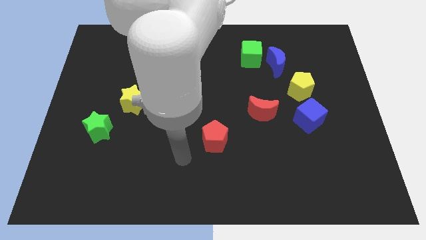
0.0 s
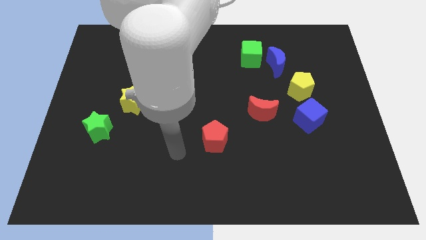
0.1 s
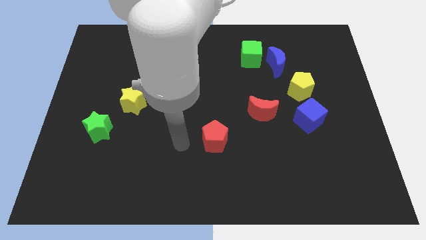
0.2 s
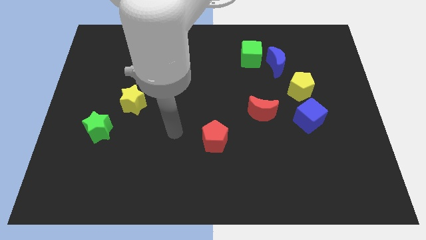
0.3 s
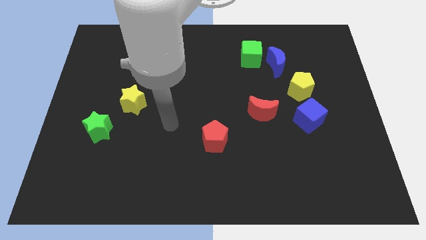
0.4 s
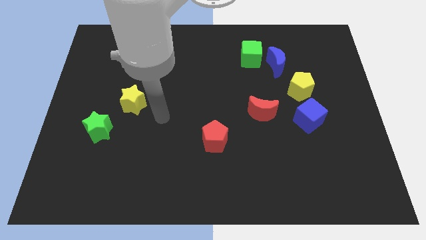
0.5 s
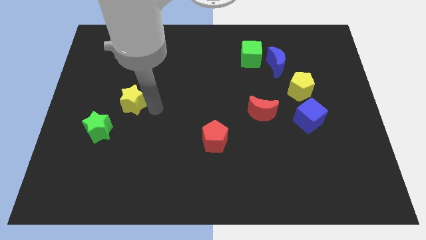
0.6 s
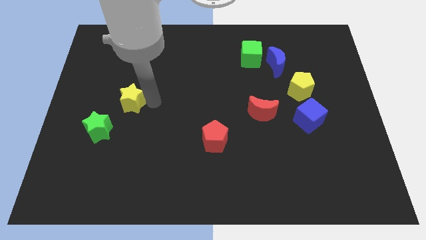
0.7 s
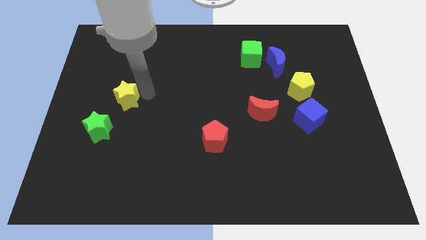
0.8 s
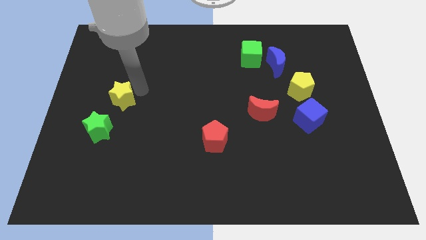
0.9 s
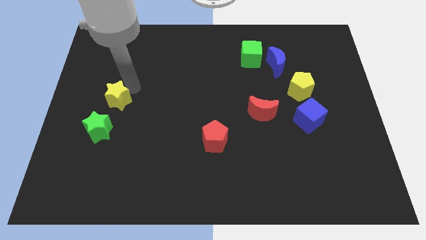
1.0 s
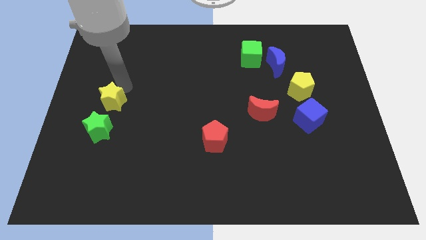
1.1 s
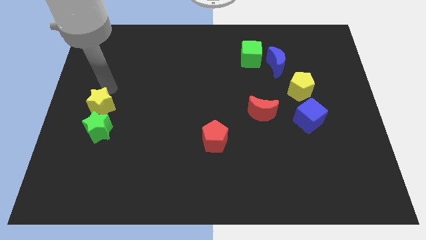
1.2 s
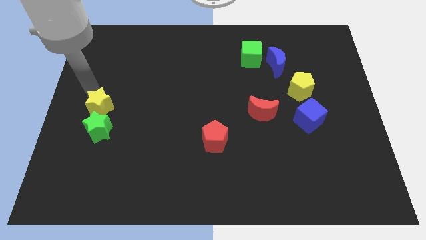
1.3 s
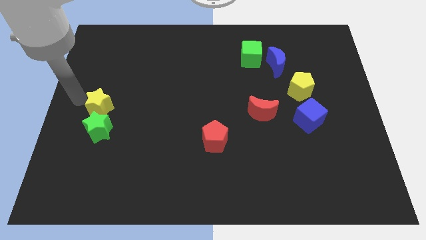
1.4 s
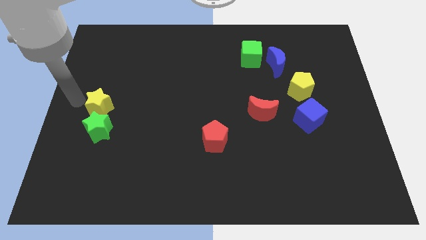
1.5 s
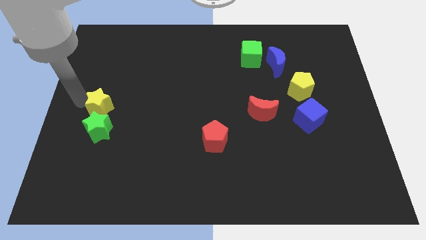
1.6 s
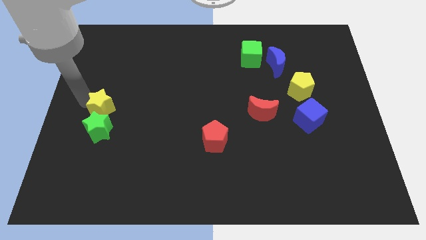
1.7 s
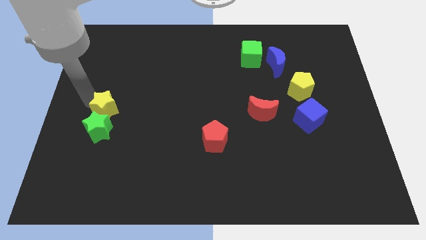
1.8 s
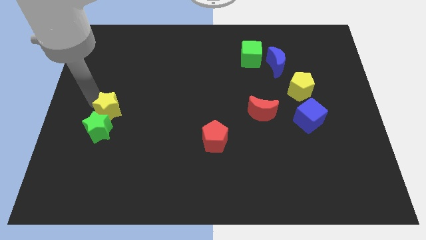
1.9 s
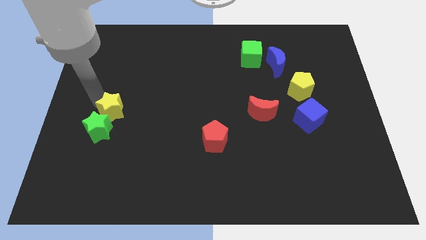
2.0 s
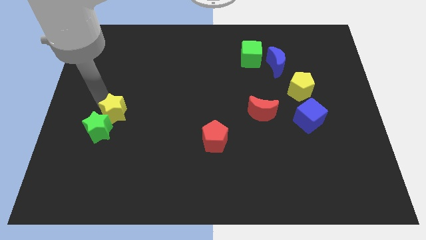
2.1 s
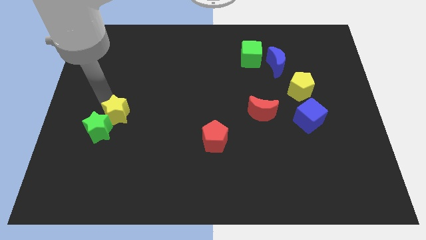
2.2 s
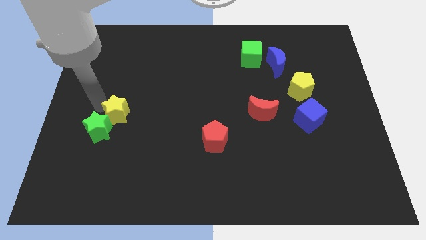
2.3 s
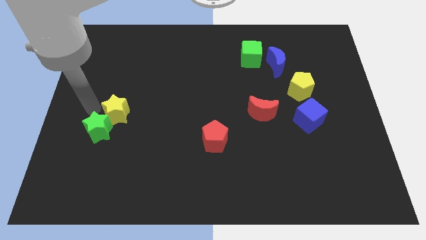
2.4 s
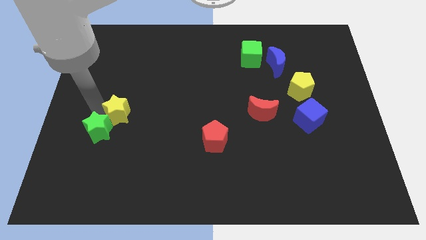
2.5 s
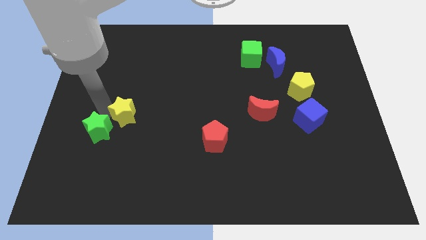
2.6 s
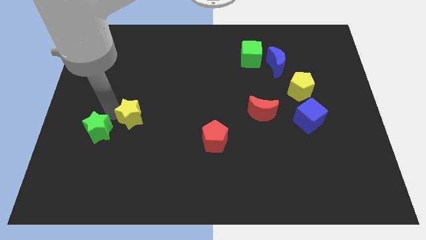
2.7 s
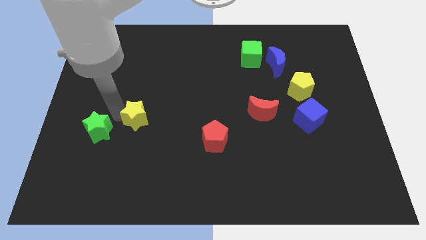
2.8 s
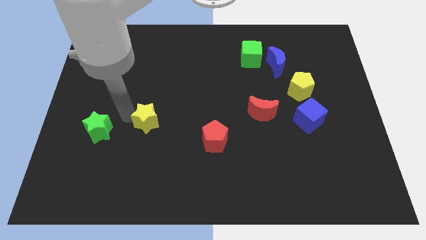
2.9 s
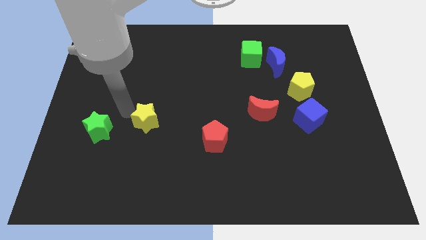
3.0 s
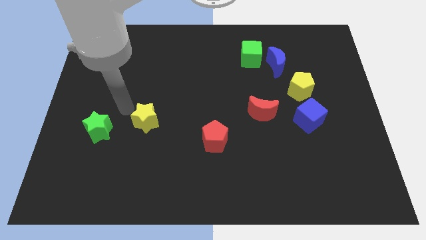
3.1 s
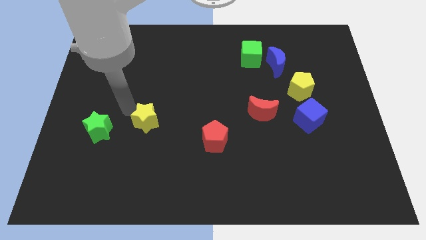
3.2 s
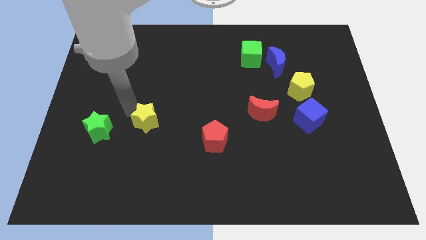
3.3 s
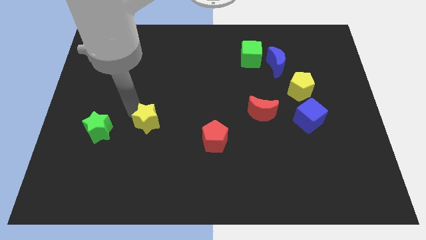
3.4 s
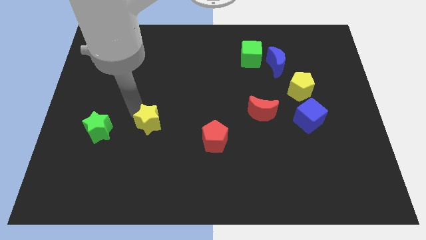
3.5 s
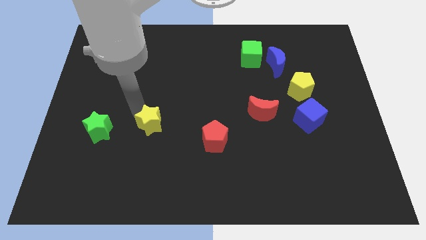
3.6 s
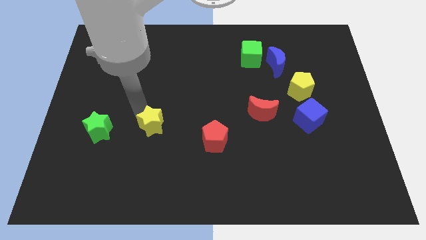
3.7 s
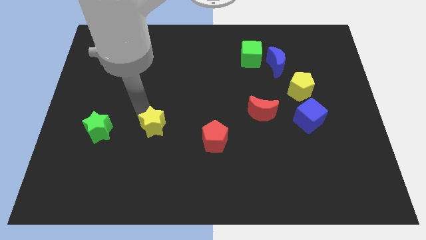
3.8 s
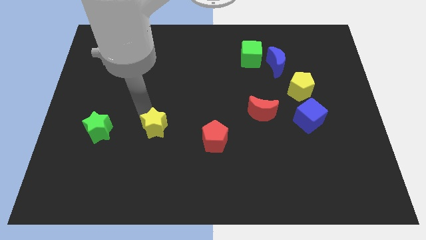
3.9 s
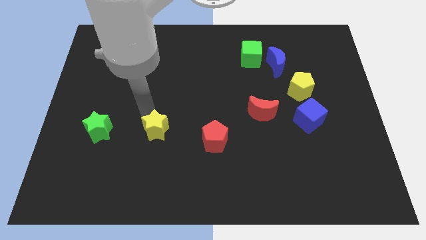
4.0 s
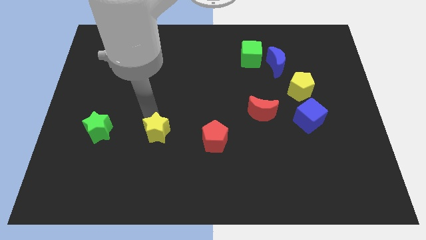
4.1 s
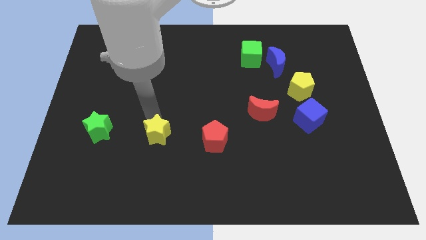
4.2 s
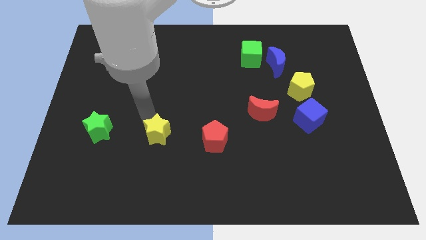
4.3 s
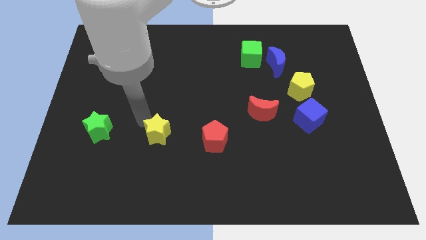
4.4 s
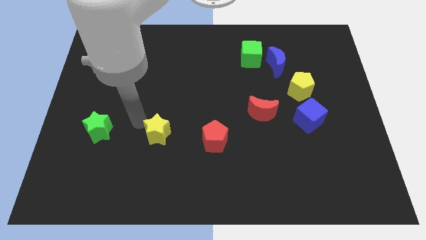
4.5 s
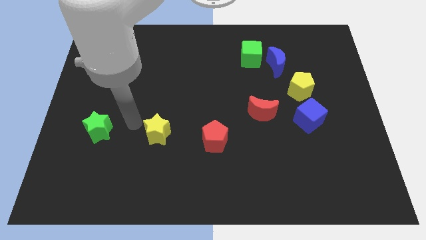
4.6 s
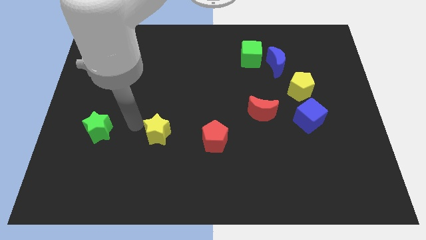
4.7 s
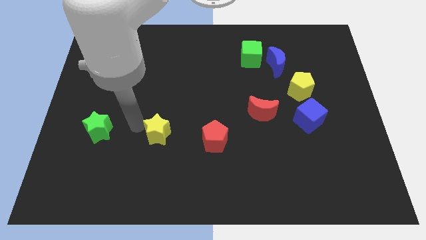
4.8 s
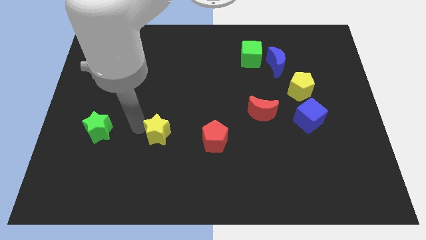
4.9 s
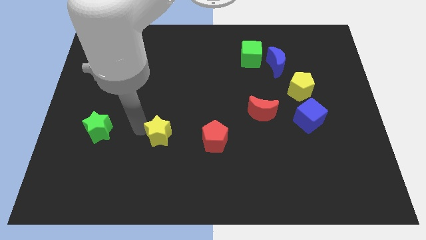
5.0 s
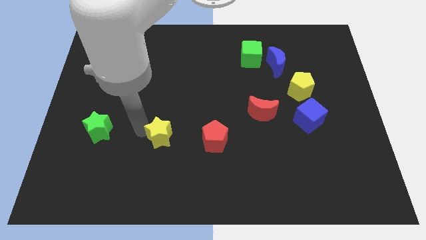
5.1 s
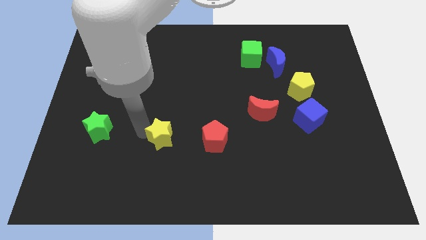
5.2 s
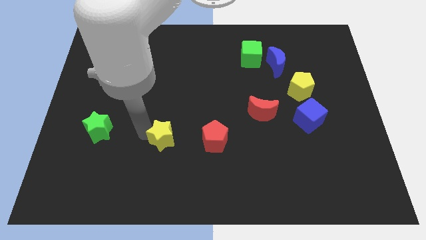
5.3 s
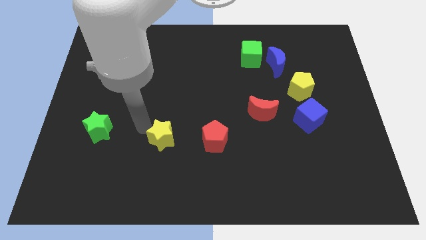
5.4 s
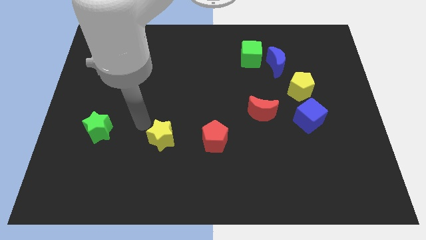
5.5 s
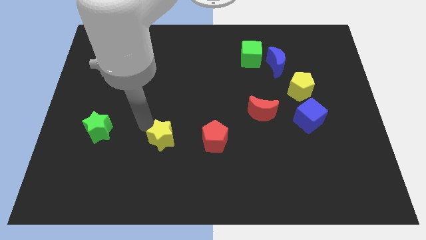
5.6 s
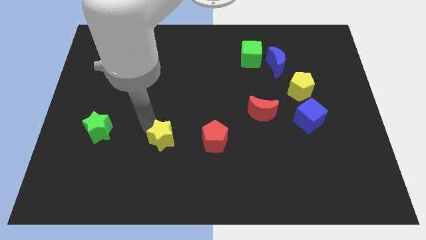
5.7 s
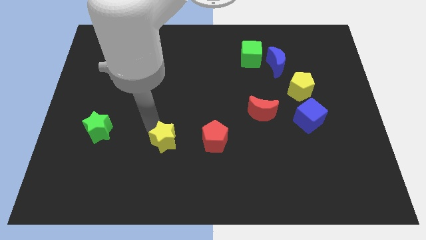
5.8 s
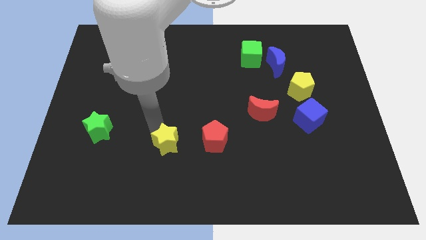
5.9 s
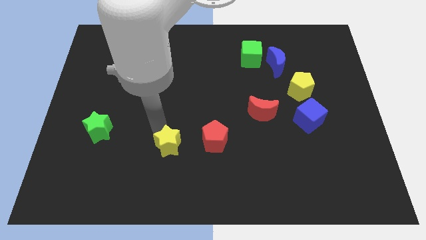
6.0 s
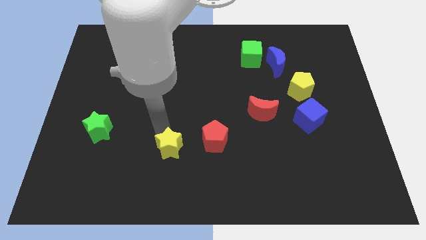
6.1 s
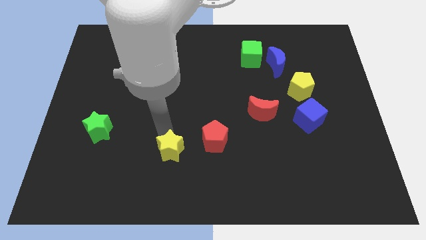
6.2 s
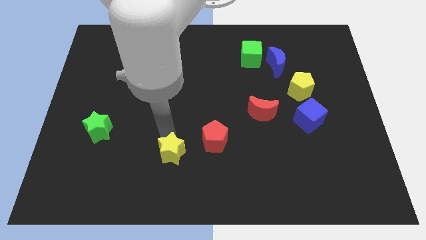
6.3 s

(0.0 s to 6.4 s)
move the yellow star to the bottom left side of the red pentagon

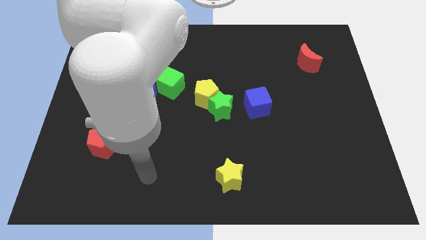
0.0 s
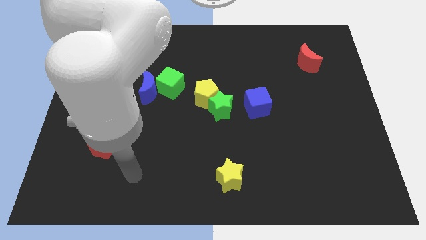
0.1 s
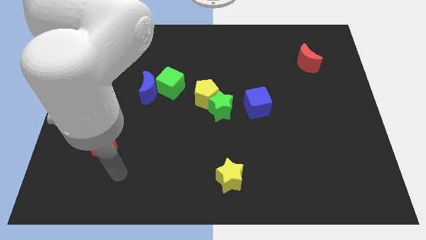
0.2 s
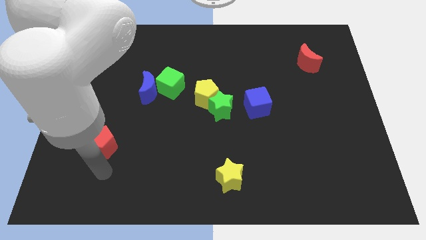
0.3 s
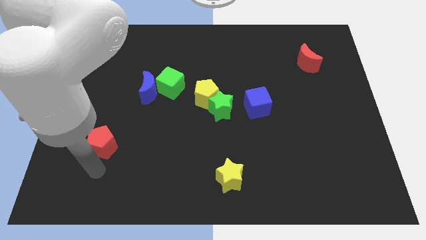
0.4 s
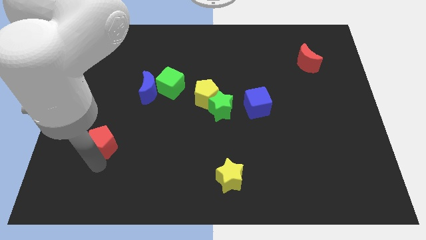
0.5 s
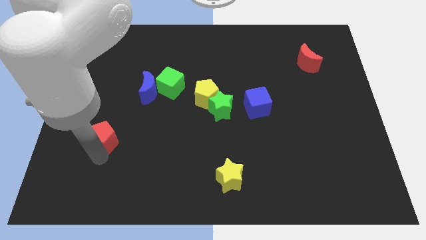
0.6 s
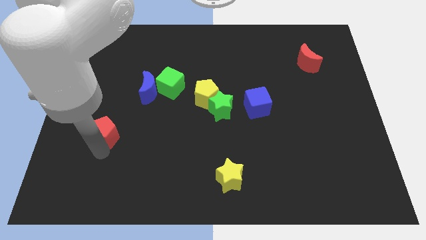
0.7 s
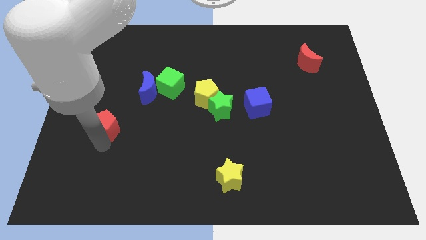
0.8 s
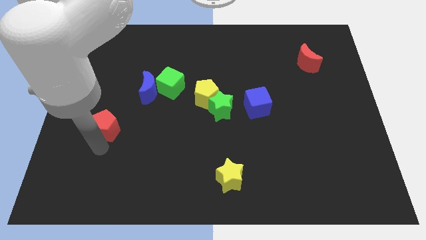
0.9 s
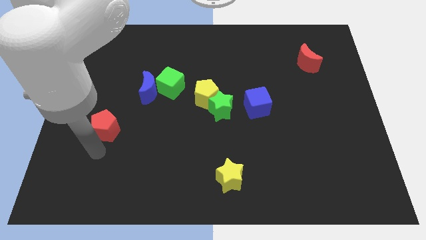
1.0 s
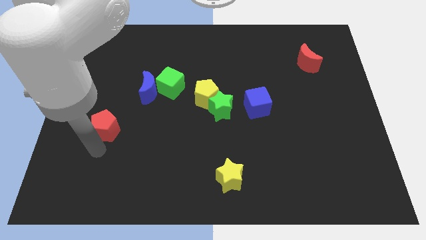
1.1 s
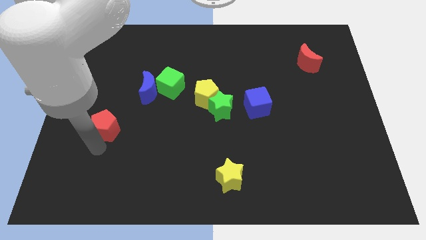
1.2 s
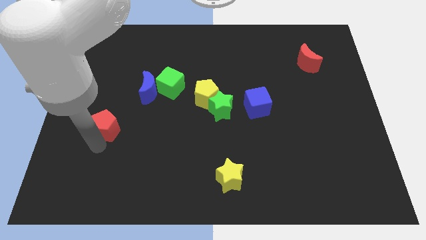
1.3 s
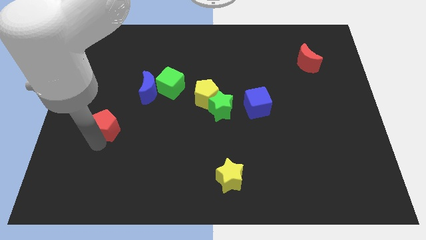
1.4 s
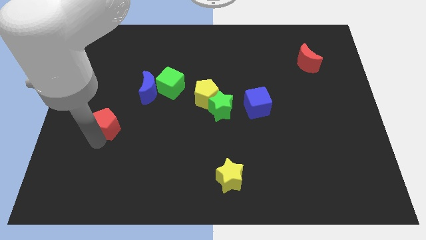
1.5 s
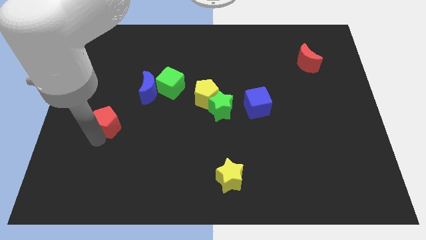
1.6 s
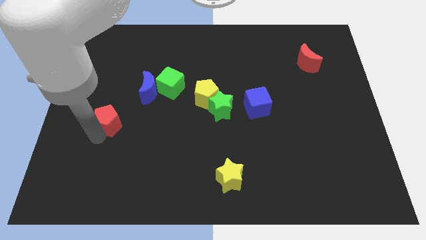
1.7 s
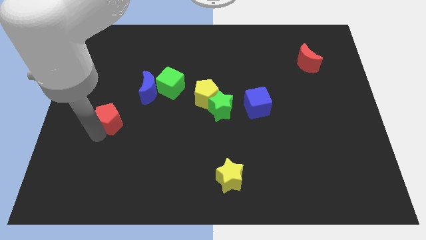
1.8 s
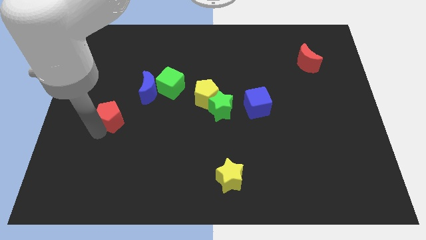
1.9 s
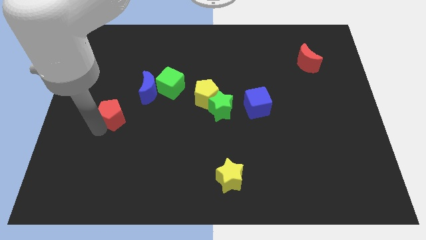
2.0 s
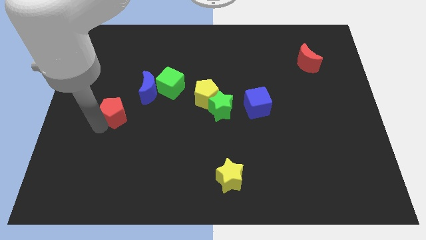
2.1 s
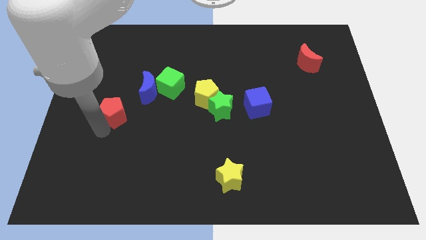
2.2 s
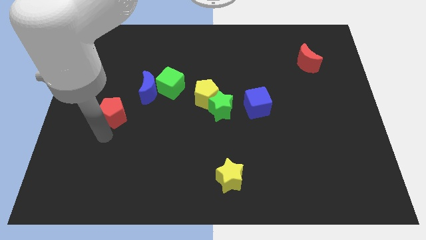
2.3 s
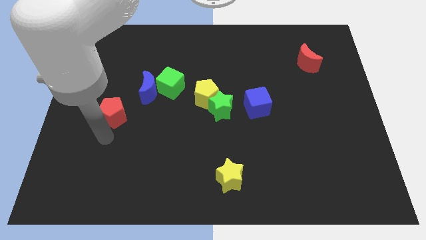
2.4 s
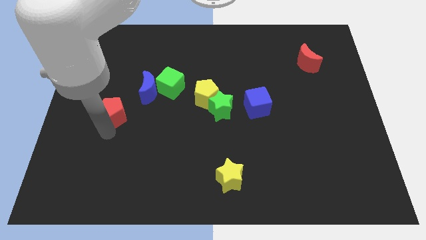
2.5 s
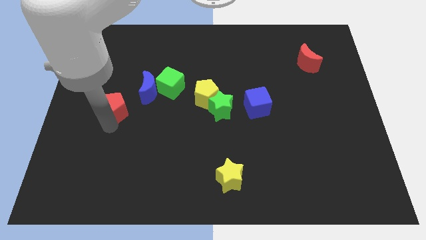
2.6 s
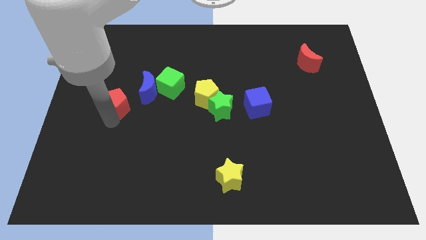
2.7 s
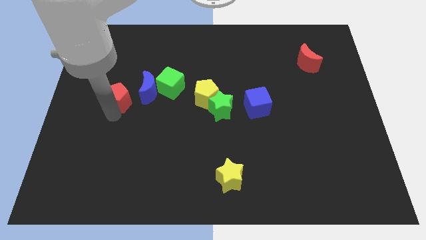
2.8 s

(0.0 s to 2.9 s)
put the red pentagon just left of the green cube
